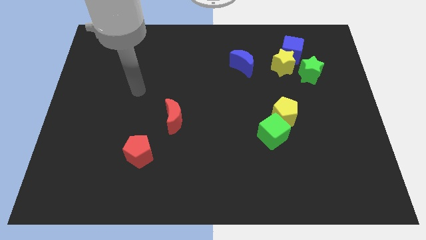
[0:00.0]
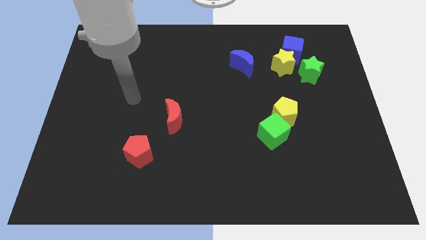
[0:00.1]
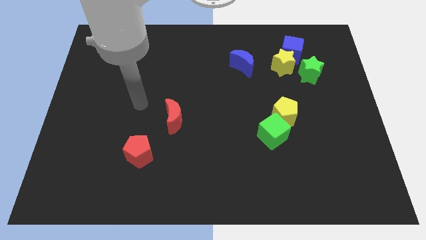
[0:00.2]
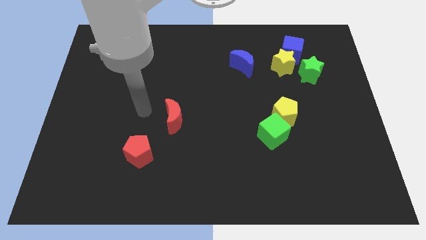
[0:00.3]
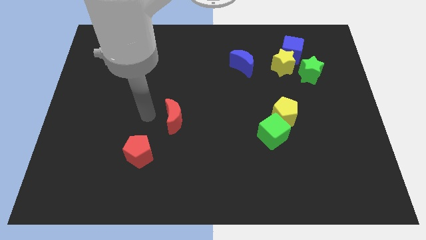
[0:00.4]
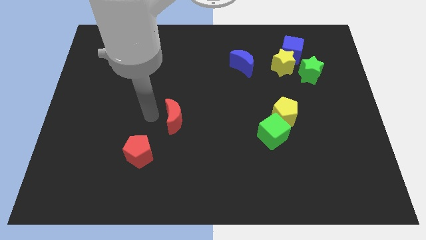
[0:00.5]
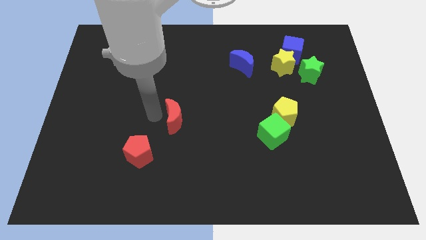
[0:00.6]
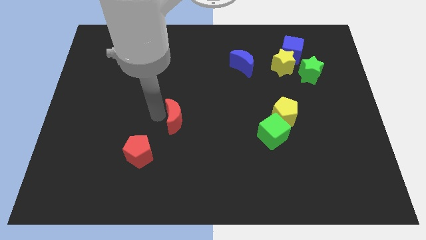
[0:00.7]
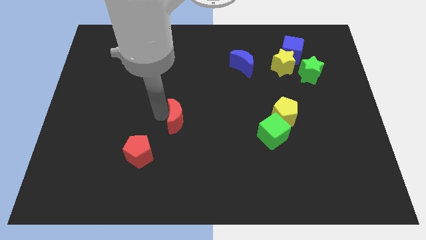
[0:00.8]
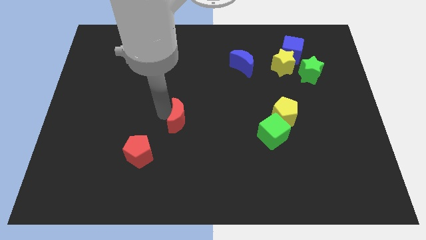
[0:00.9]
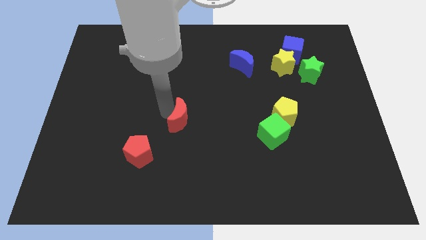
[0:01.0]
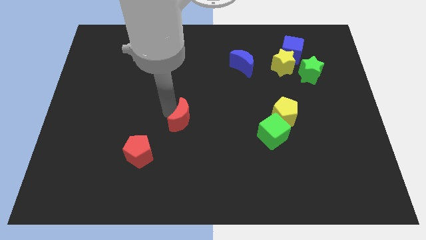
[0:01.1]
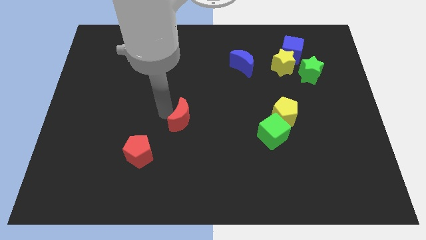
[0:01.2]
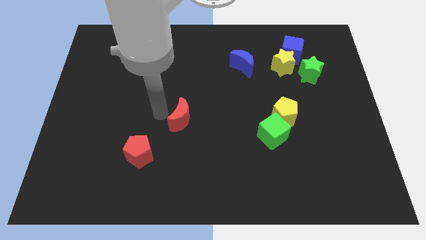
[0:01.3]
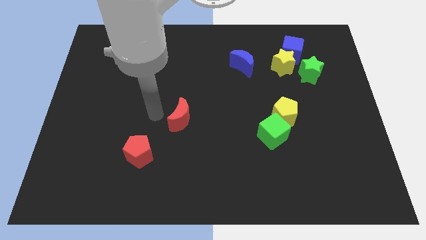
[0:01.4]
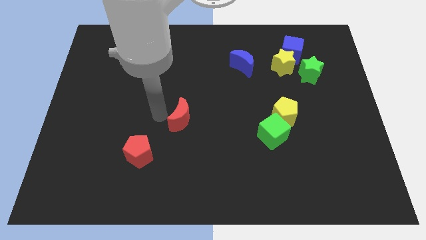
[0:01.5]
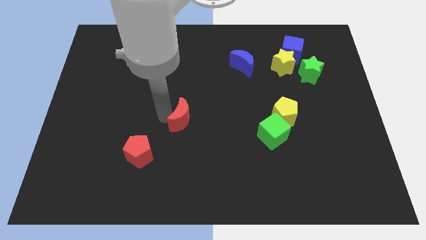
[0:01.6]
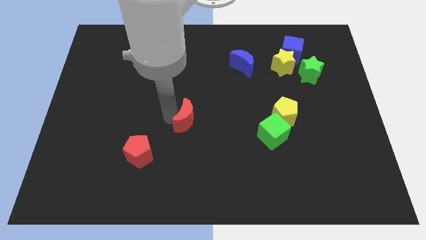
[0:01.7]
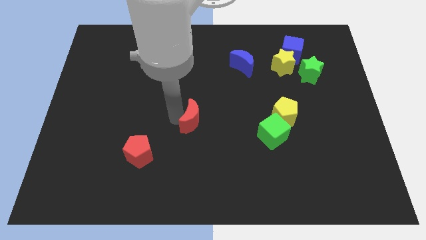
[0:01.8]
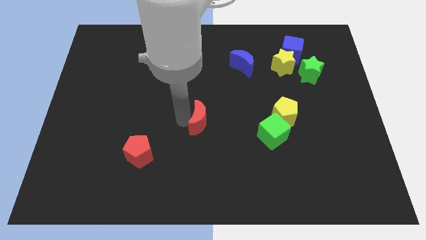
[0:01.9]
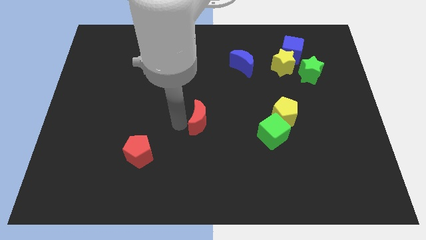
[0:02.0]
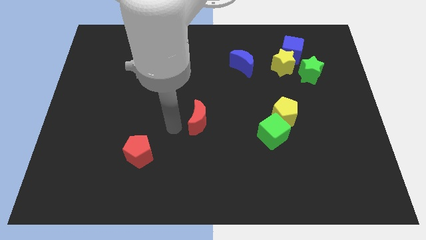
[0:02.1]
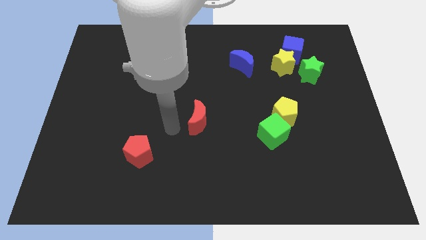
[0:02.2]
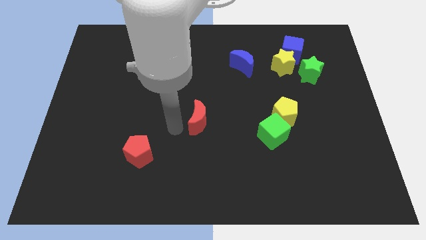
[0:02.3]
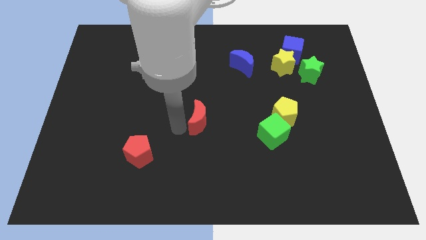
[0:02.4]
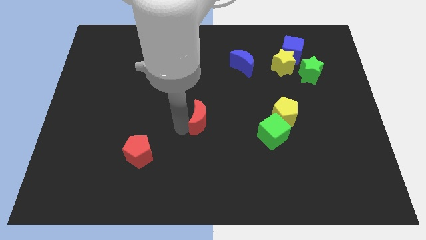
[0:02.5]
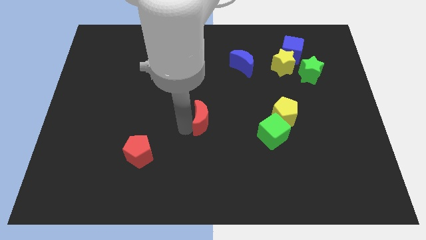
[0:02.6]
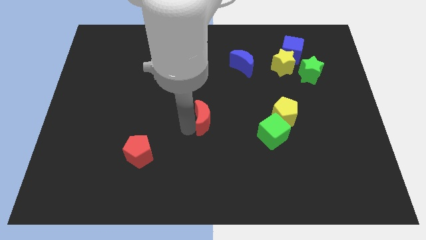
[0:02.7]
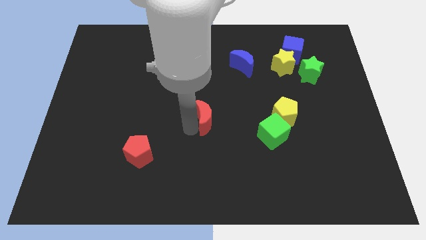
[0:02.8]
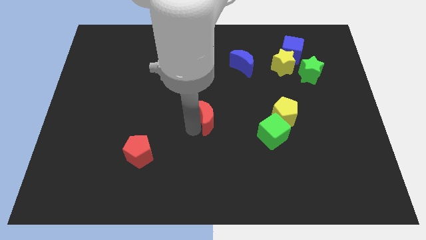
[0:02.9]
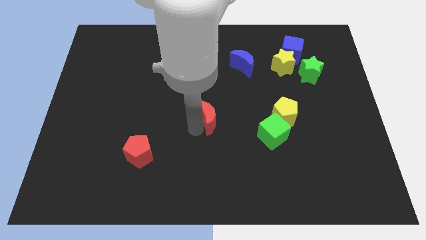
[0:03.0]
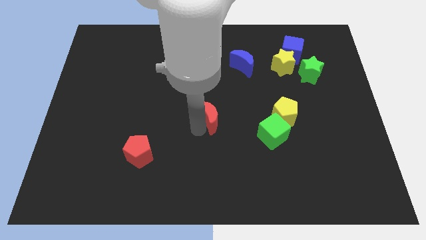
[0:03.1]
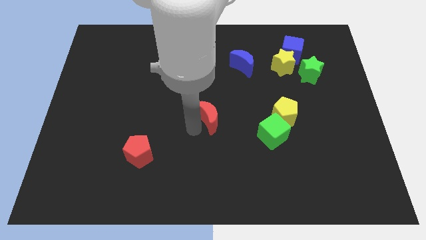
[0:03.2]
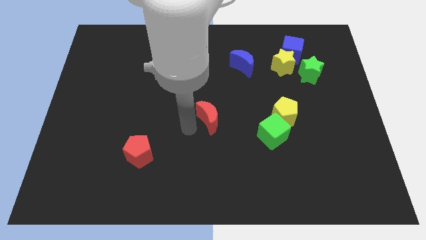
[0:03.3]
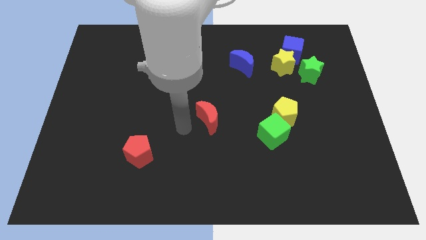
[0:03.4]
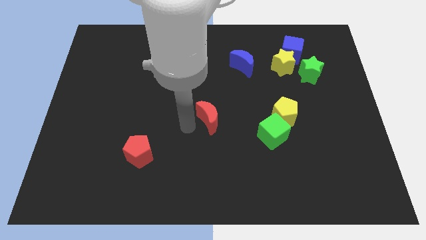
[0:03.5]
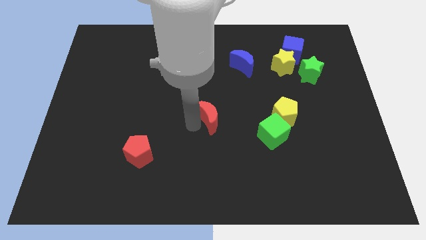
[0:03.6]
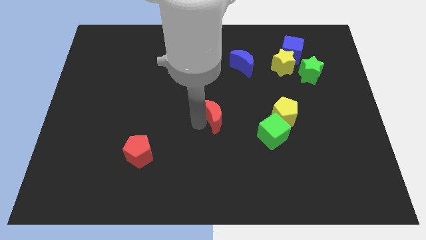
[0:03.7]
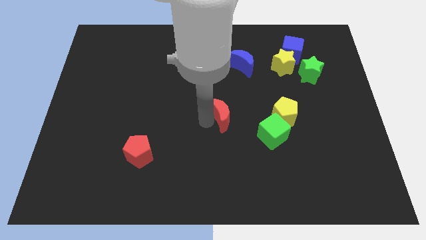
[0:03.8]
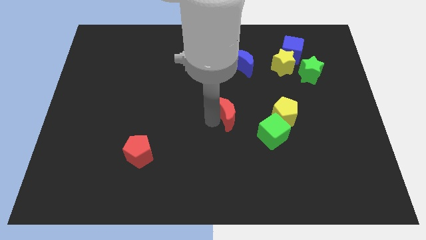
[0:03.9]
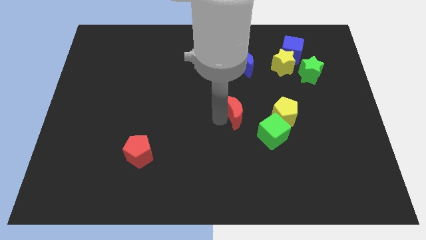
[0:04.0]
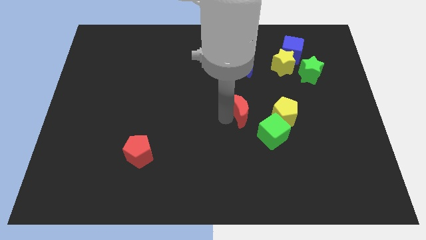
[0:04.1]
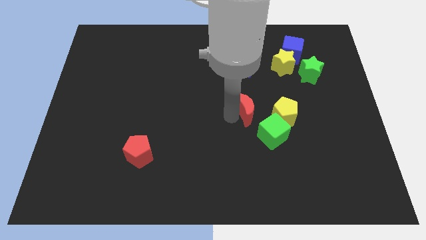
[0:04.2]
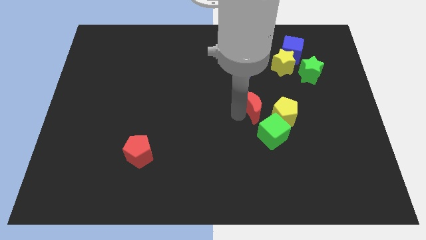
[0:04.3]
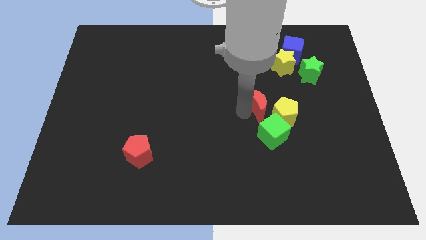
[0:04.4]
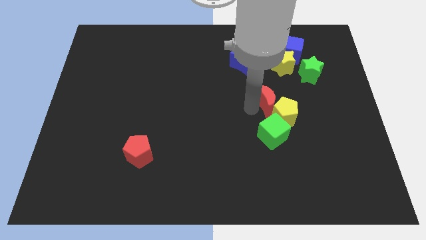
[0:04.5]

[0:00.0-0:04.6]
move the red moon right

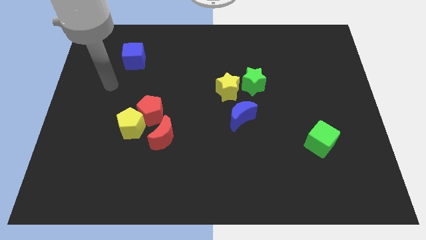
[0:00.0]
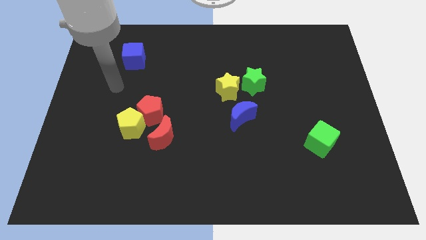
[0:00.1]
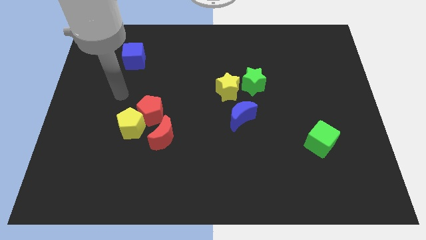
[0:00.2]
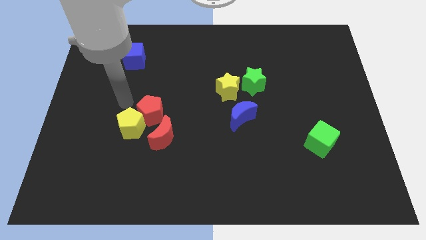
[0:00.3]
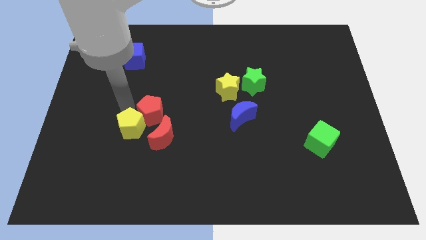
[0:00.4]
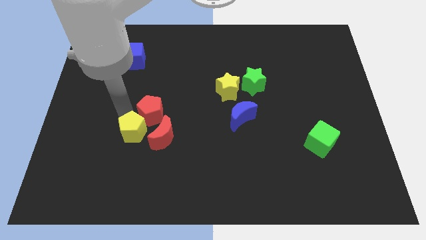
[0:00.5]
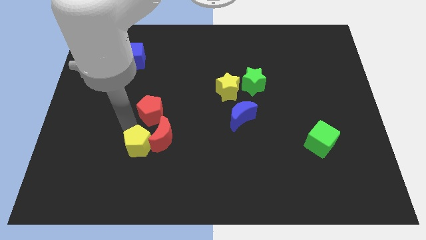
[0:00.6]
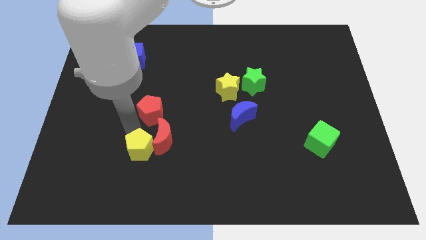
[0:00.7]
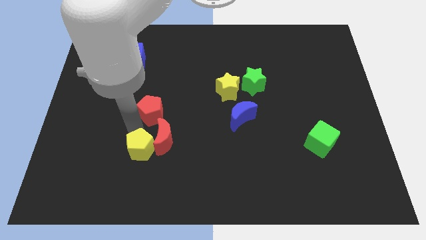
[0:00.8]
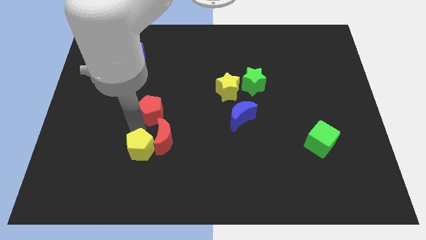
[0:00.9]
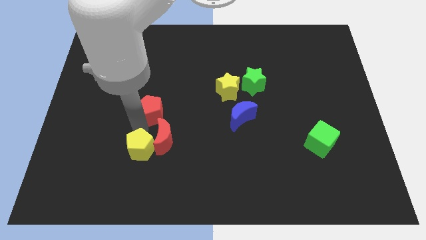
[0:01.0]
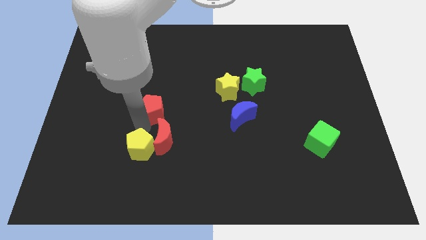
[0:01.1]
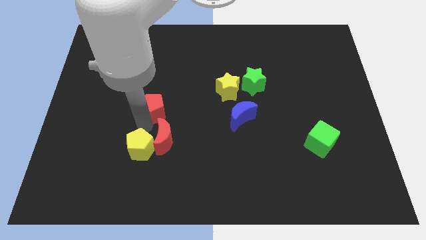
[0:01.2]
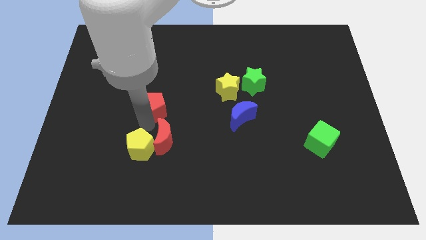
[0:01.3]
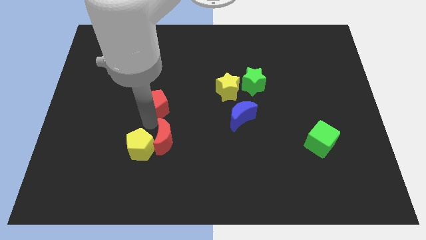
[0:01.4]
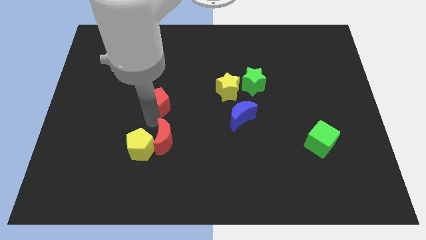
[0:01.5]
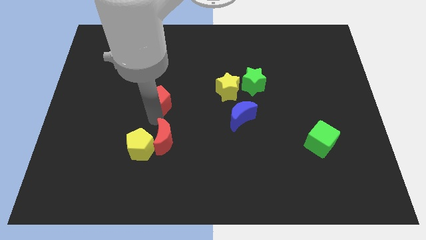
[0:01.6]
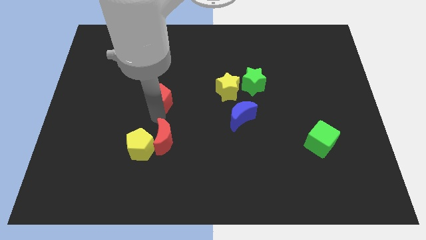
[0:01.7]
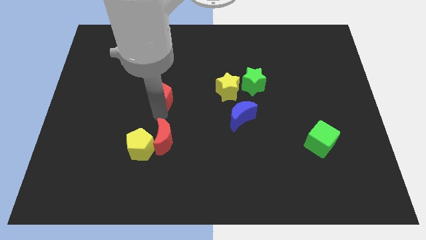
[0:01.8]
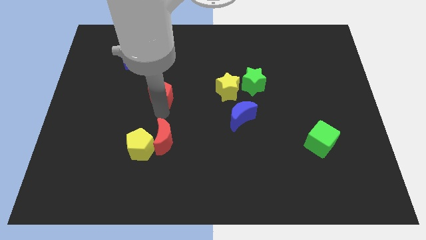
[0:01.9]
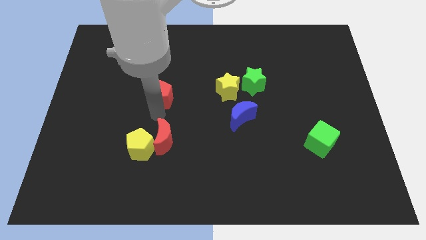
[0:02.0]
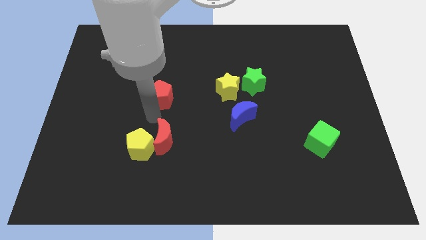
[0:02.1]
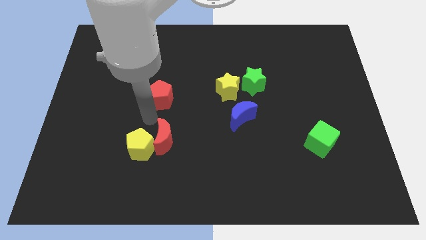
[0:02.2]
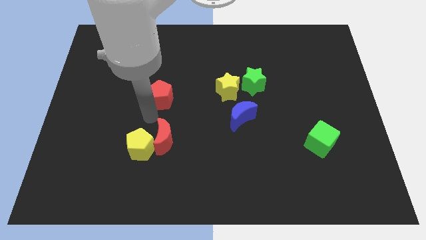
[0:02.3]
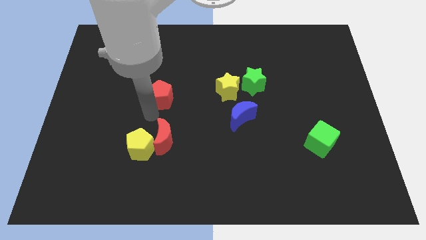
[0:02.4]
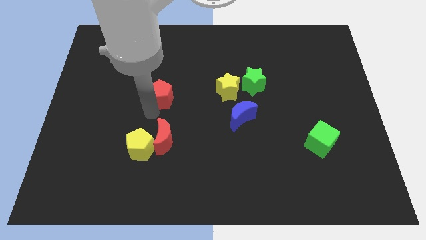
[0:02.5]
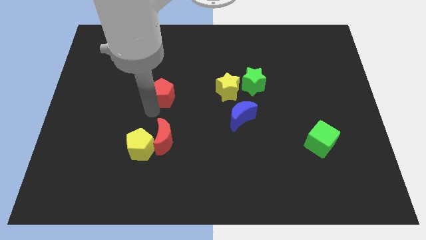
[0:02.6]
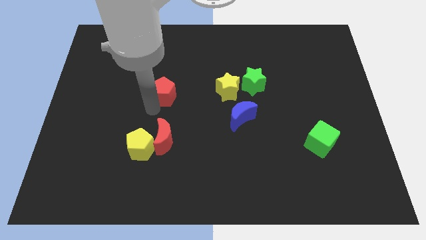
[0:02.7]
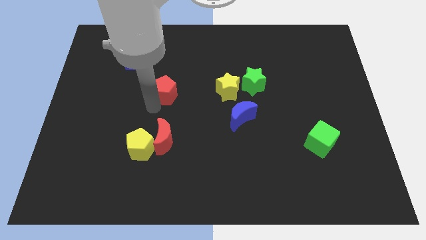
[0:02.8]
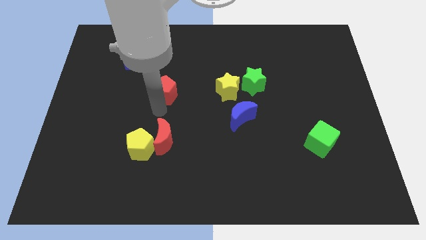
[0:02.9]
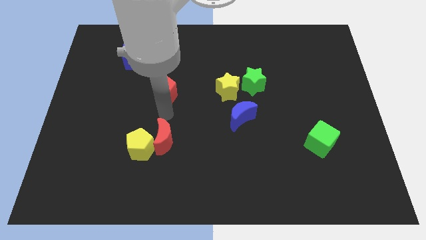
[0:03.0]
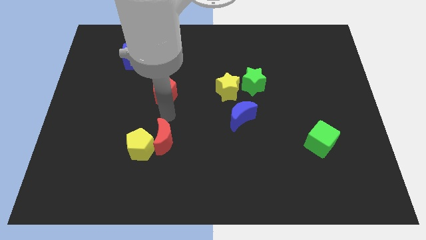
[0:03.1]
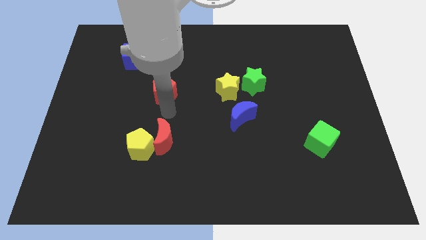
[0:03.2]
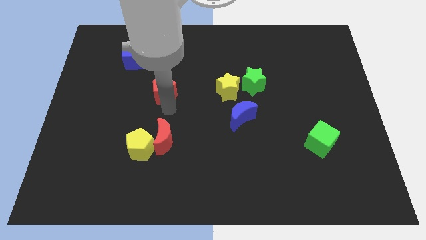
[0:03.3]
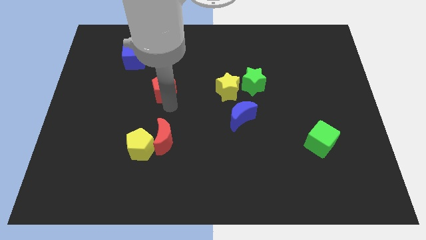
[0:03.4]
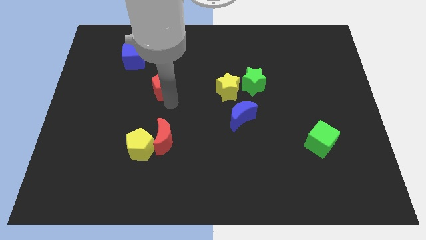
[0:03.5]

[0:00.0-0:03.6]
push the red pentagon up slightly
